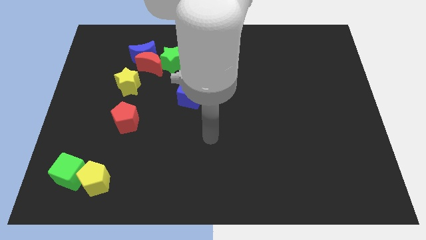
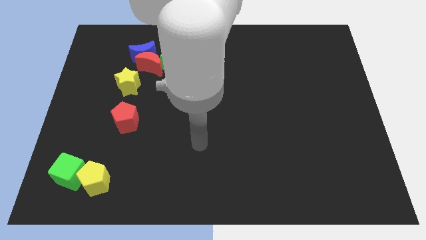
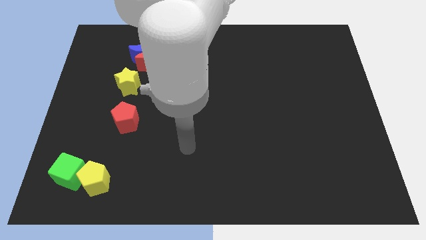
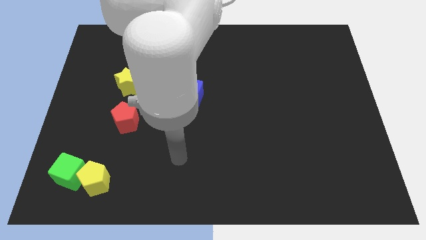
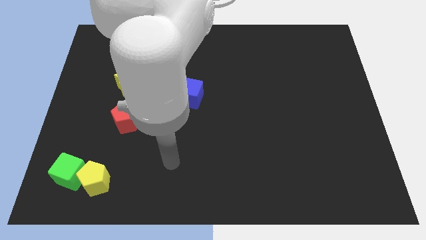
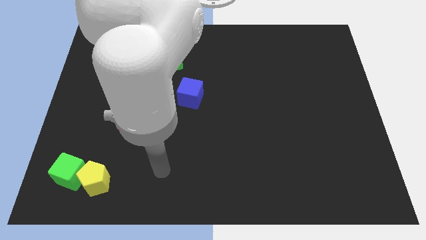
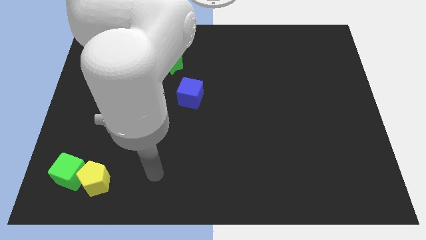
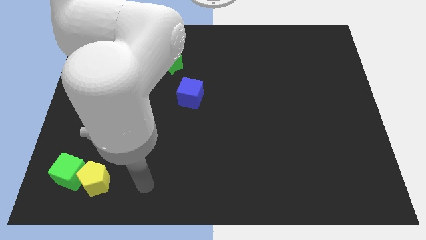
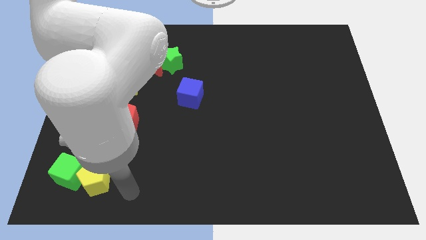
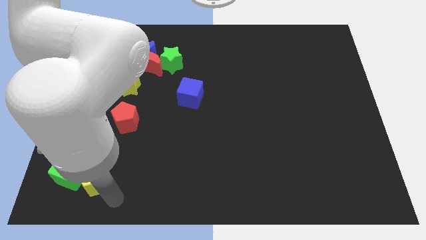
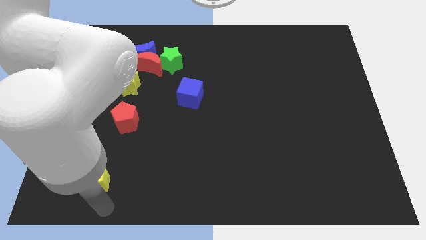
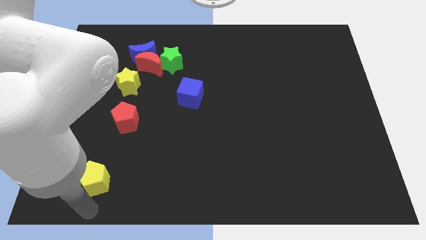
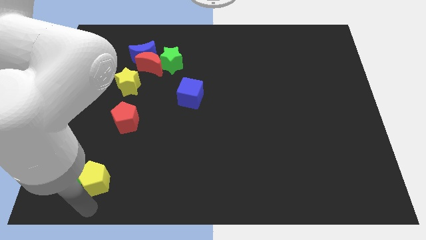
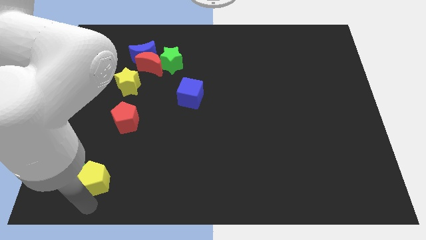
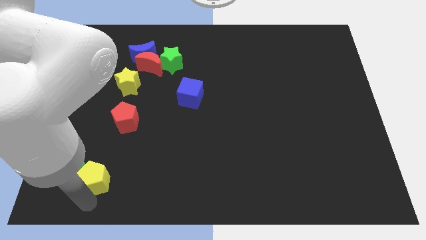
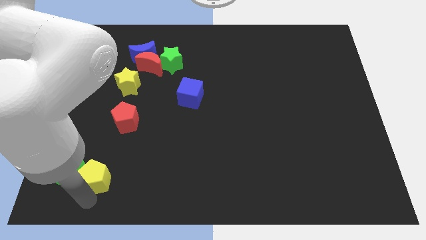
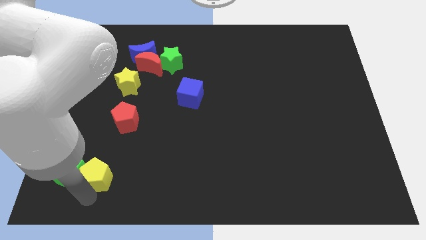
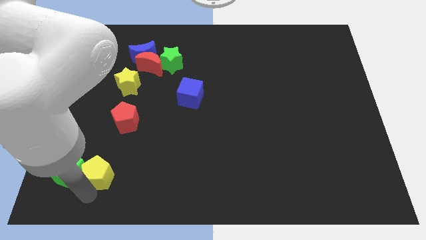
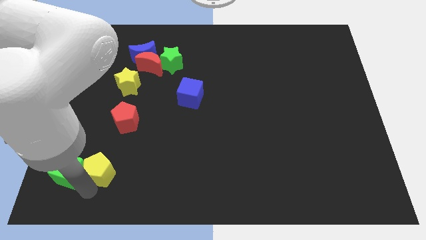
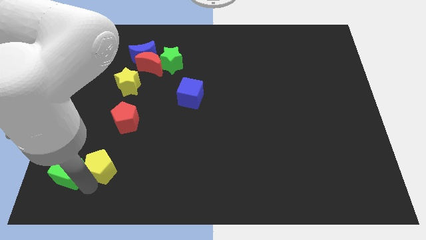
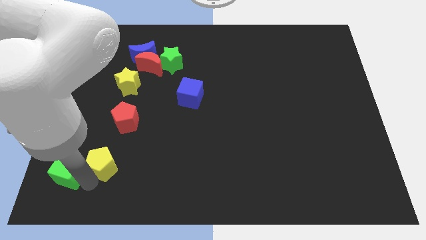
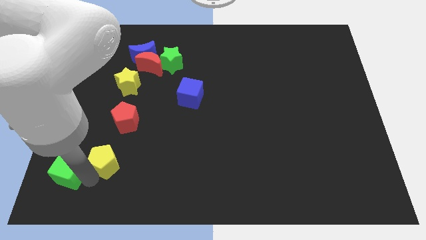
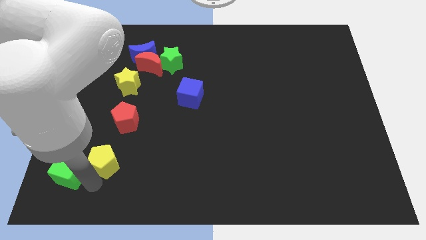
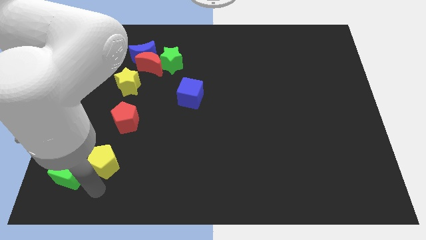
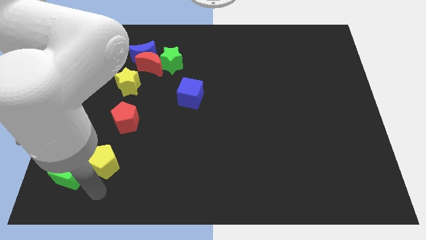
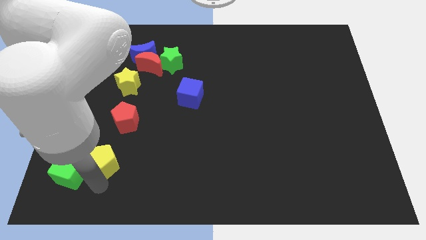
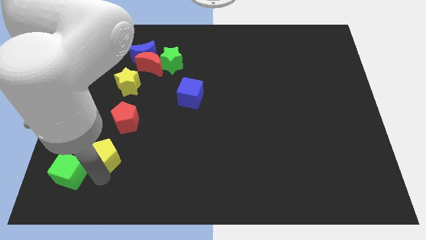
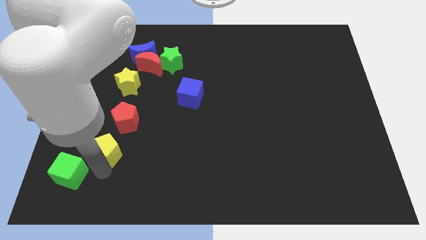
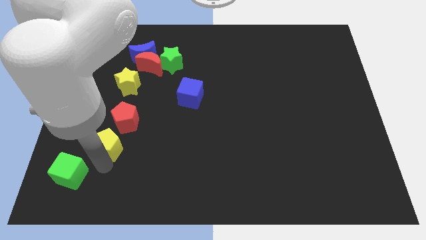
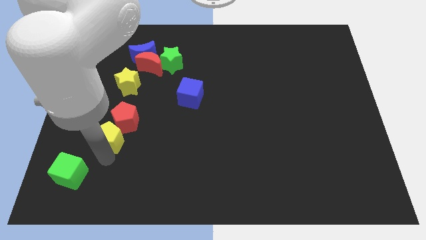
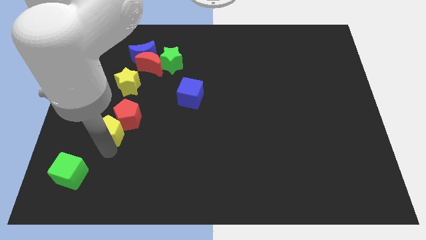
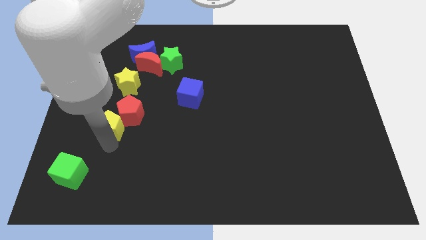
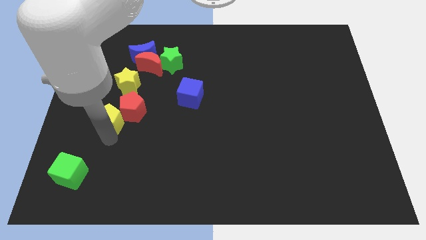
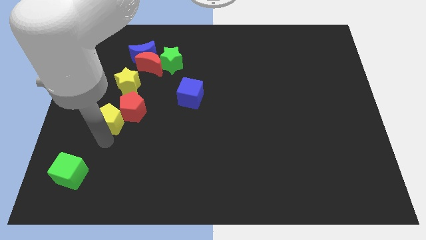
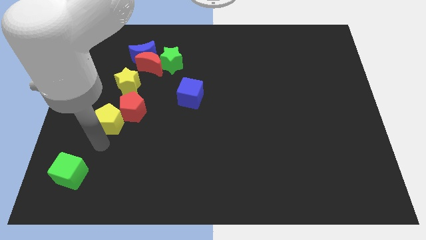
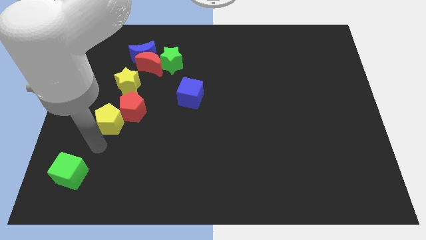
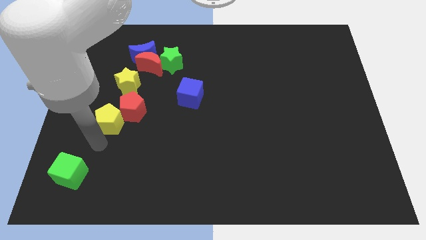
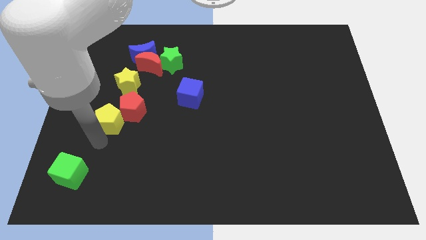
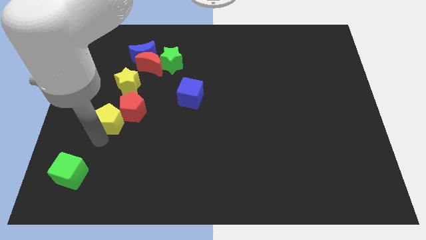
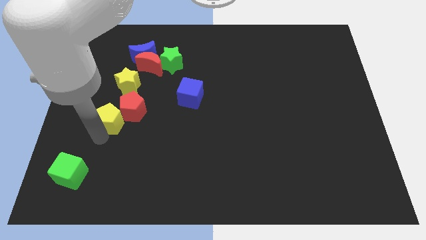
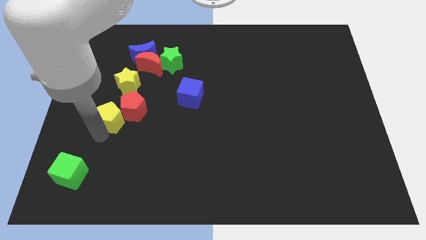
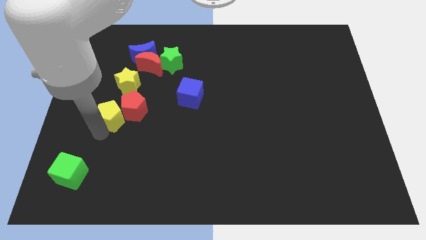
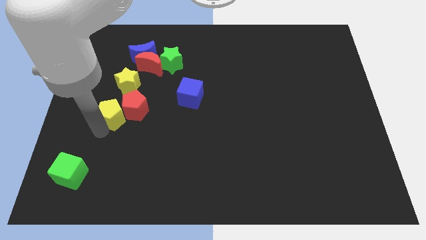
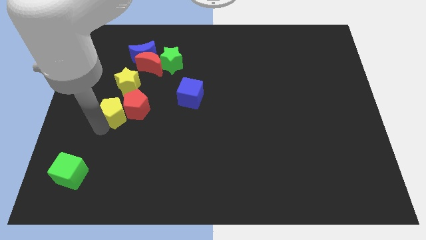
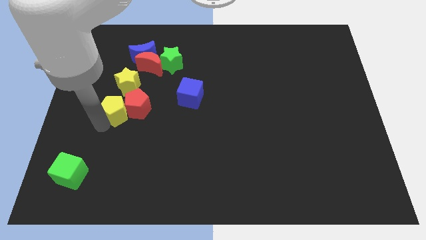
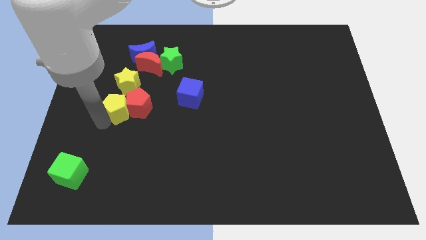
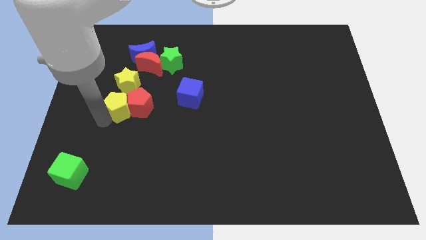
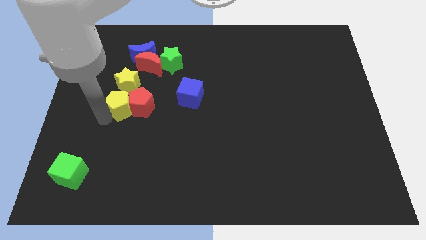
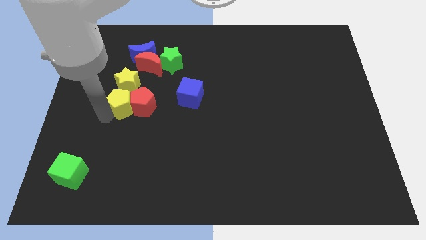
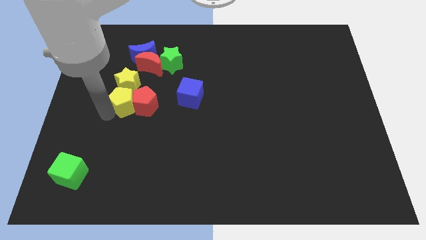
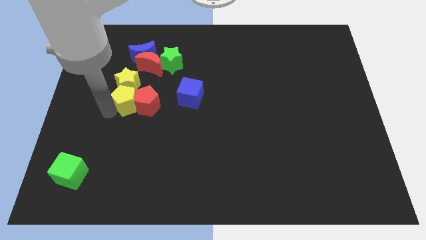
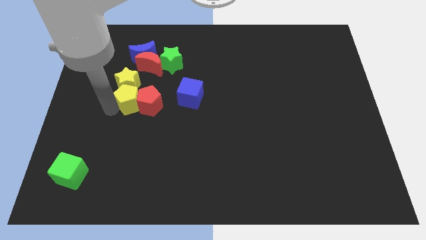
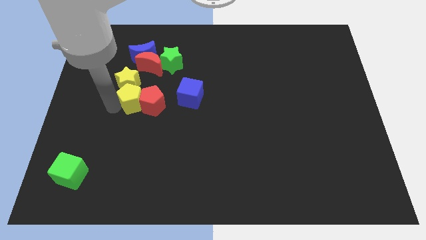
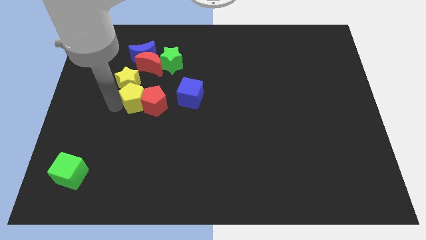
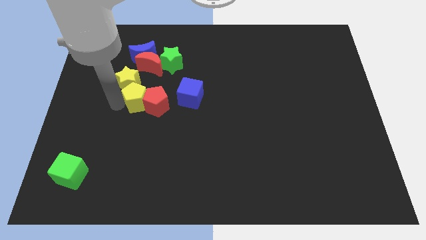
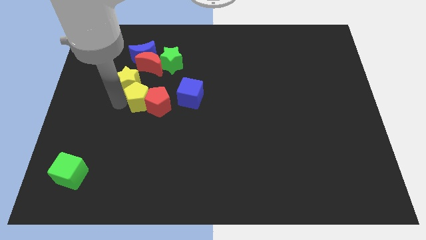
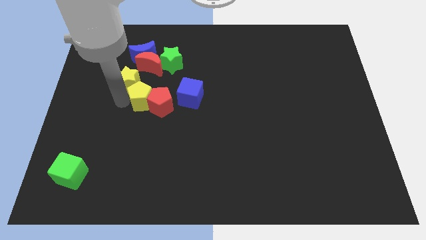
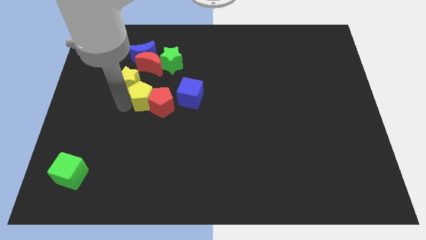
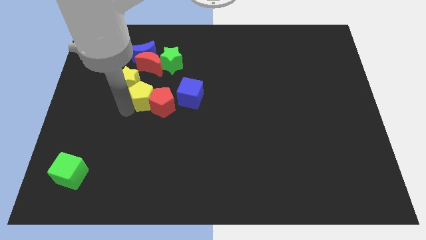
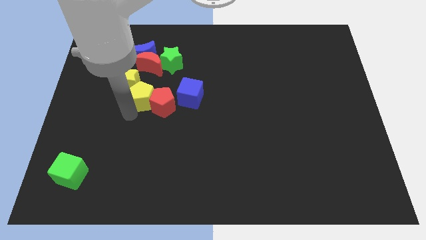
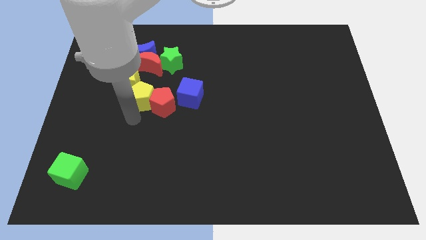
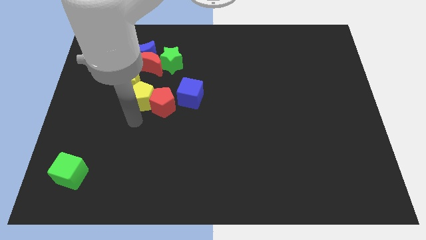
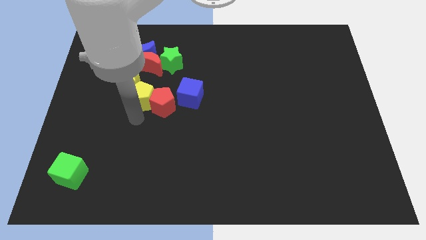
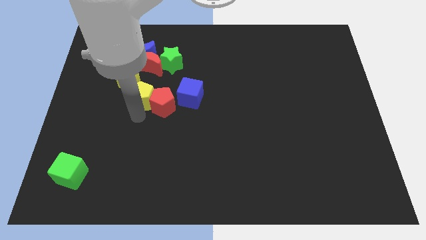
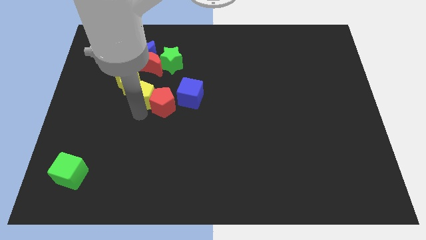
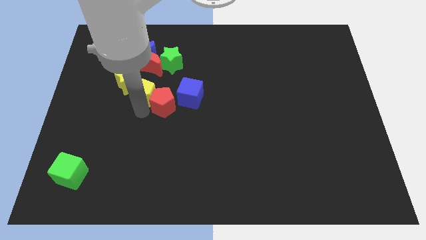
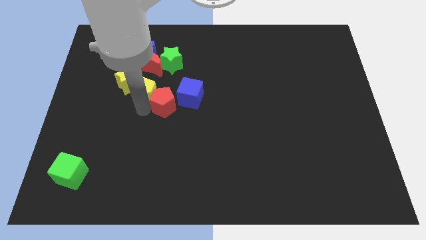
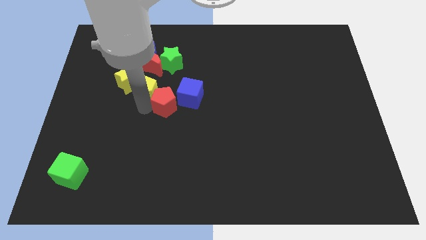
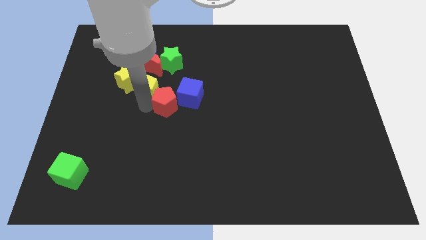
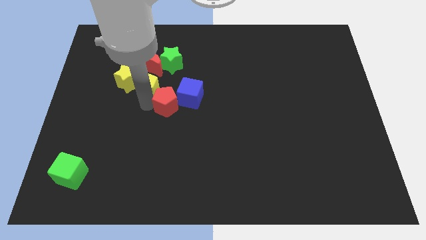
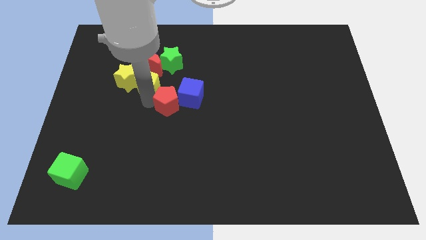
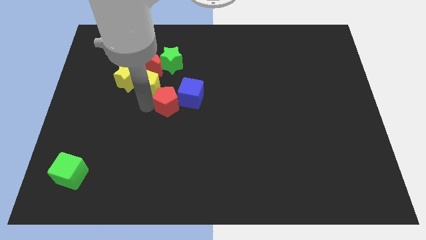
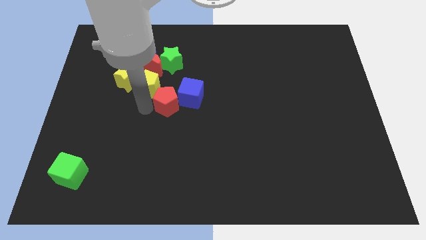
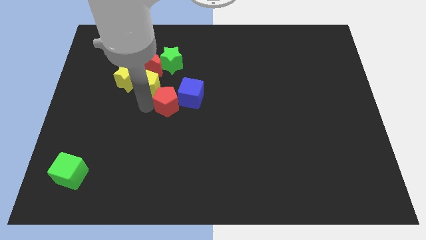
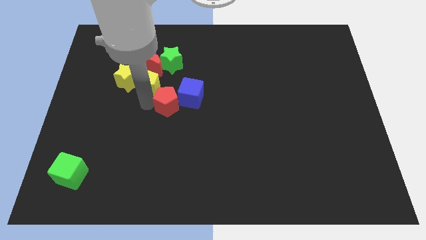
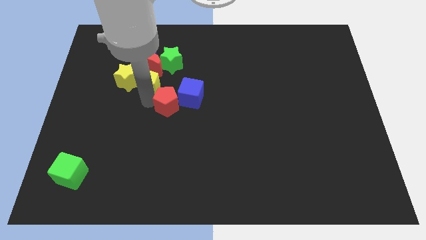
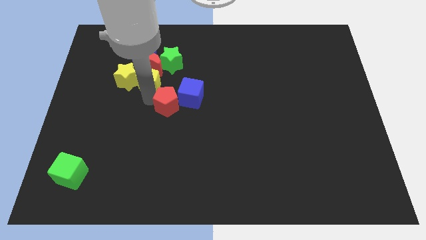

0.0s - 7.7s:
move the yellow pentagon next to the red moon
